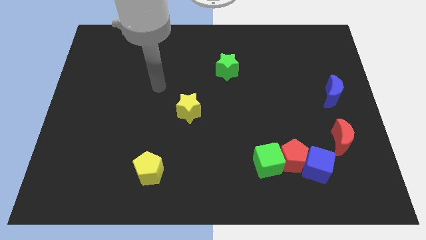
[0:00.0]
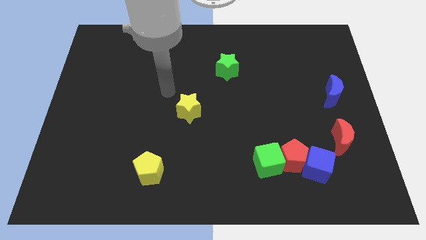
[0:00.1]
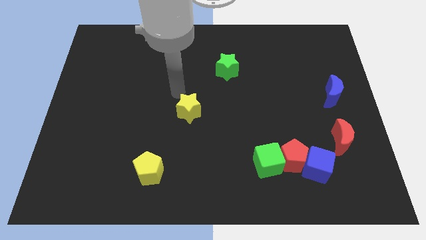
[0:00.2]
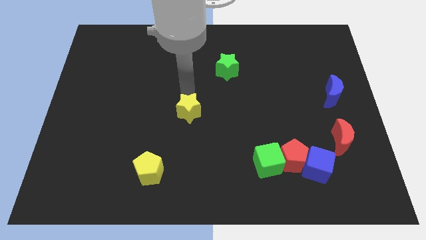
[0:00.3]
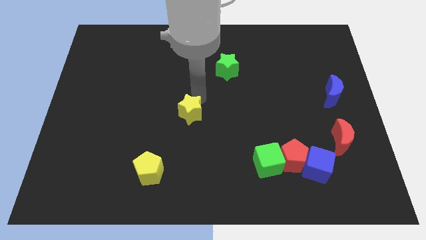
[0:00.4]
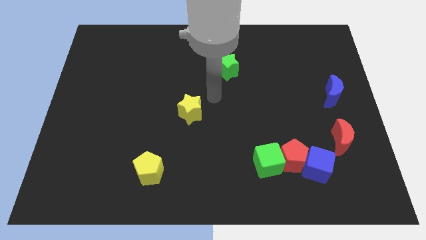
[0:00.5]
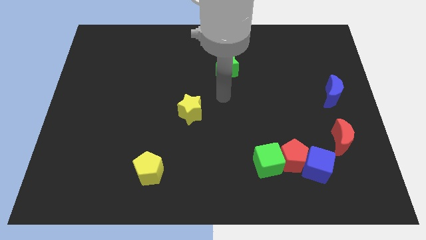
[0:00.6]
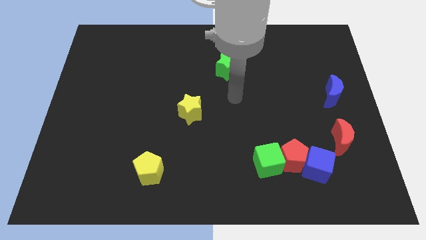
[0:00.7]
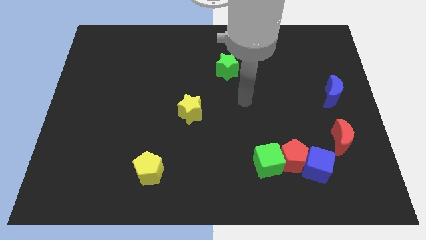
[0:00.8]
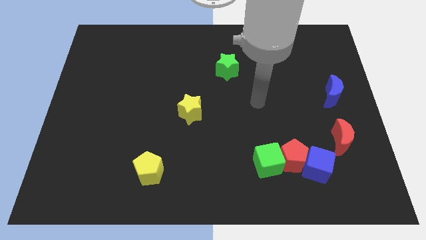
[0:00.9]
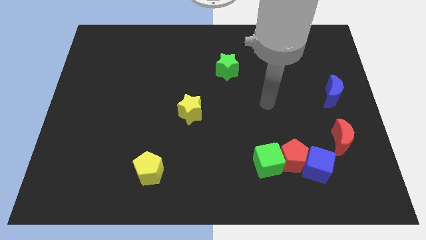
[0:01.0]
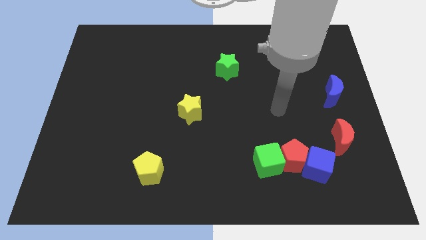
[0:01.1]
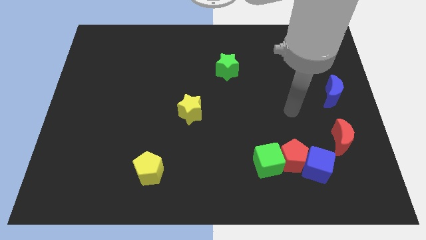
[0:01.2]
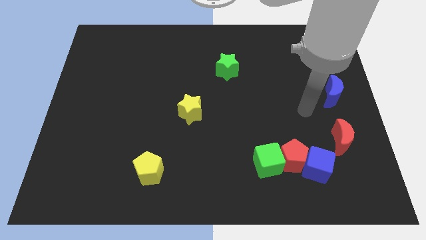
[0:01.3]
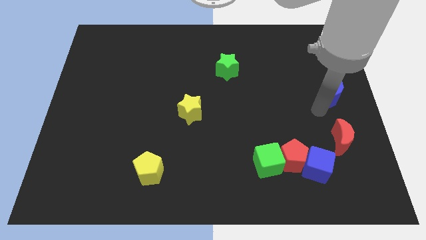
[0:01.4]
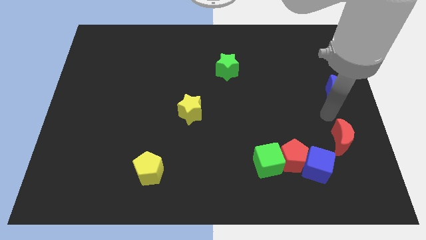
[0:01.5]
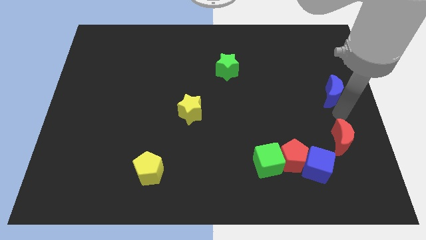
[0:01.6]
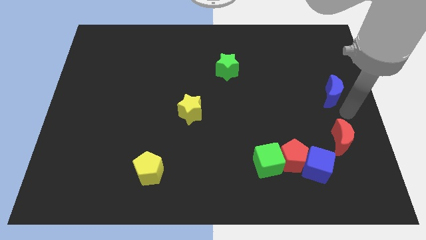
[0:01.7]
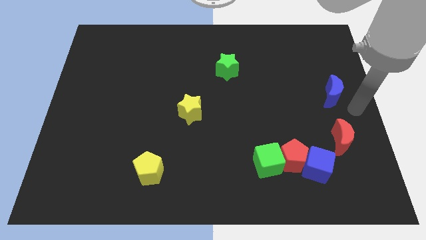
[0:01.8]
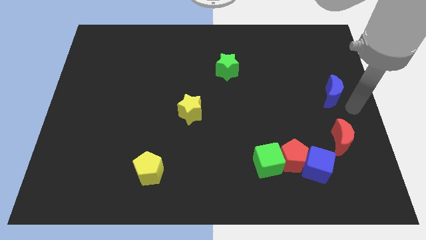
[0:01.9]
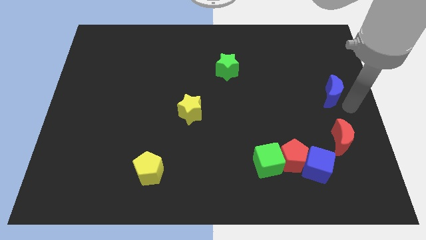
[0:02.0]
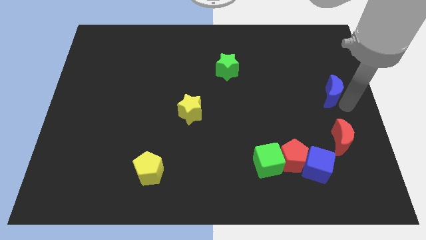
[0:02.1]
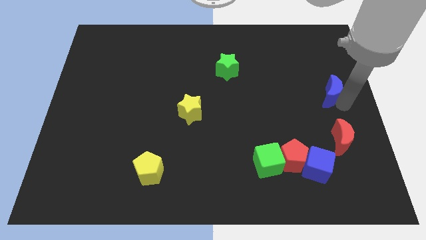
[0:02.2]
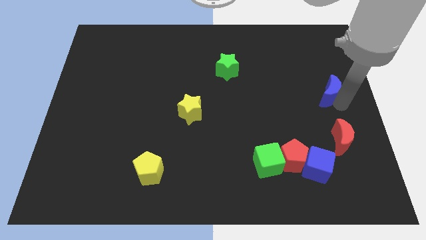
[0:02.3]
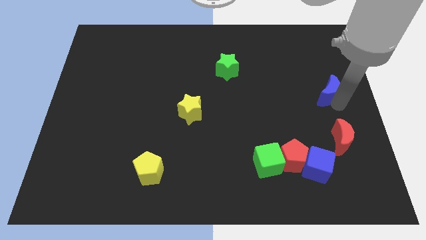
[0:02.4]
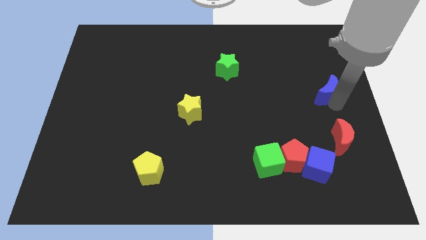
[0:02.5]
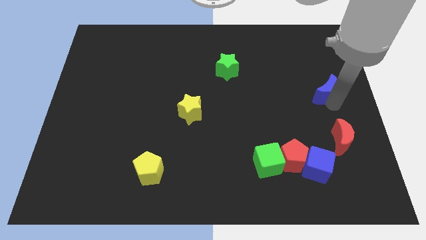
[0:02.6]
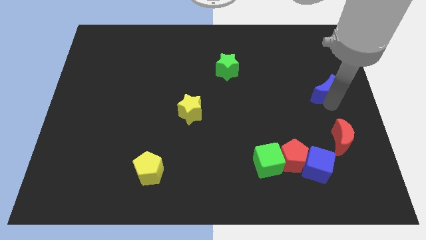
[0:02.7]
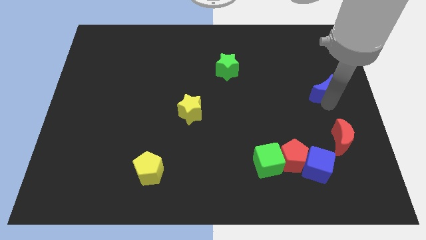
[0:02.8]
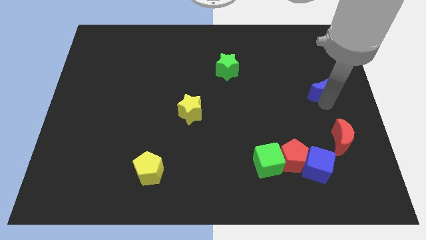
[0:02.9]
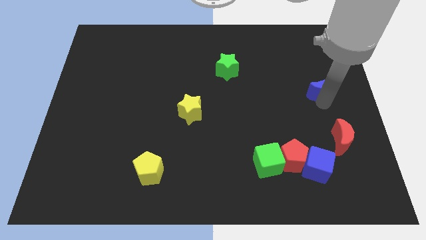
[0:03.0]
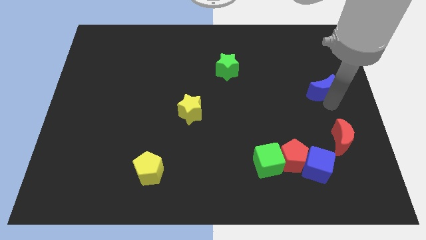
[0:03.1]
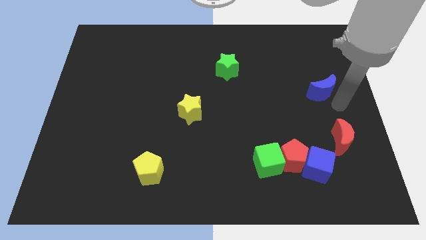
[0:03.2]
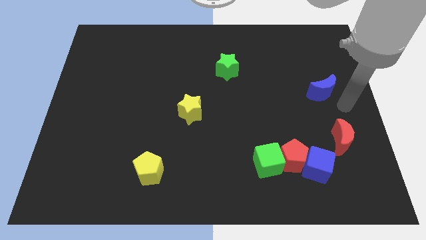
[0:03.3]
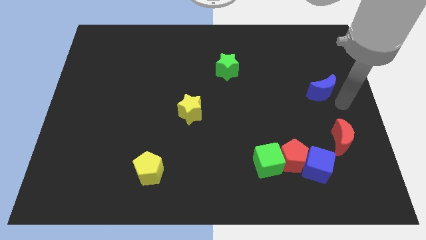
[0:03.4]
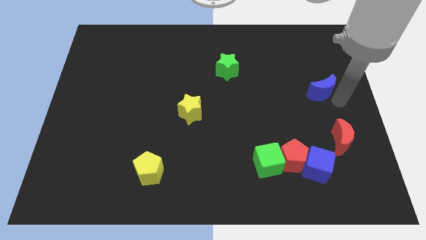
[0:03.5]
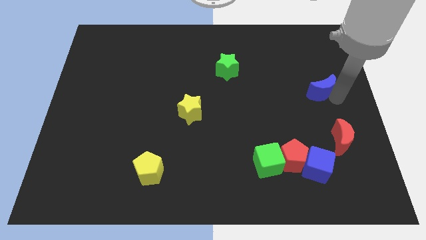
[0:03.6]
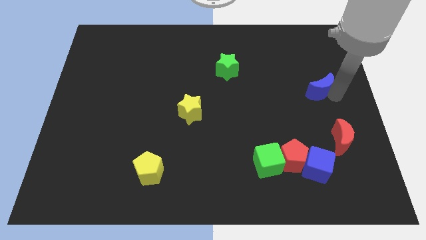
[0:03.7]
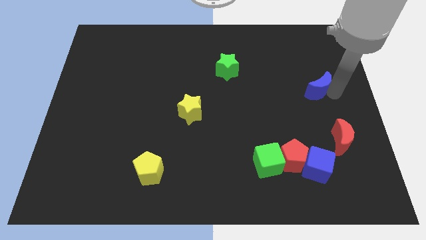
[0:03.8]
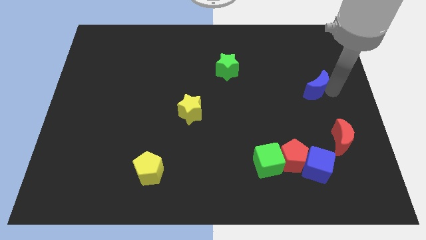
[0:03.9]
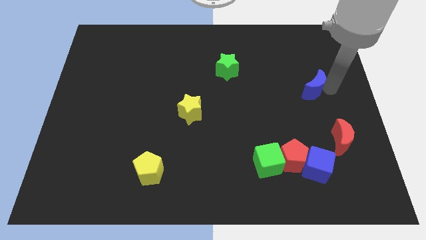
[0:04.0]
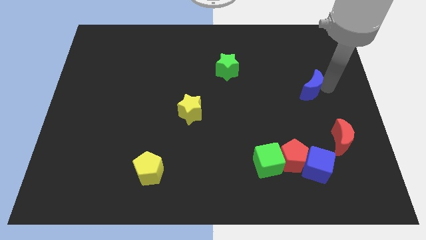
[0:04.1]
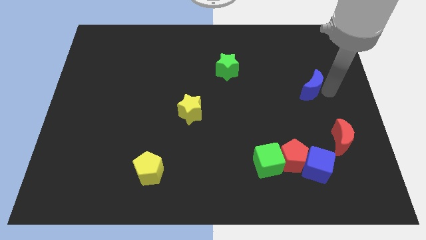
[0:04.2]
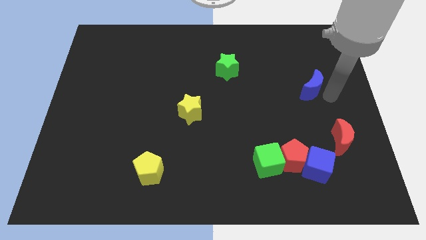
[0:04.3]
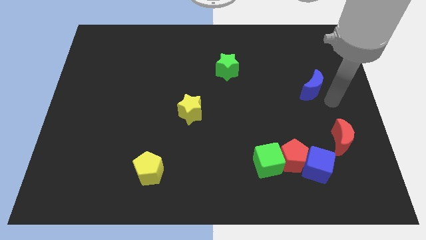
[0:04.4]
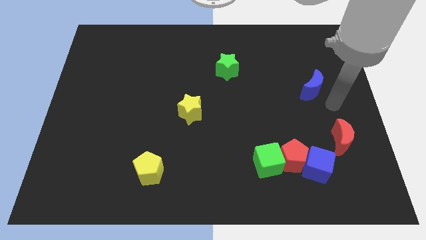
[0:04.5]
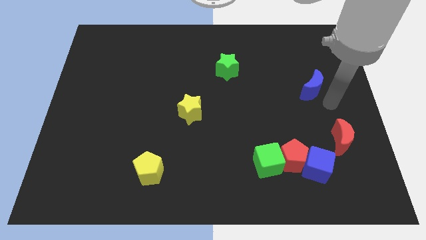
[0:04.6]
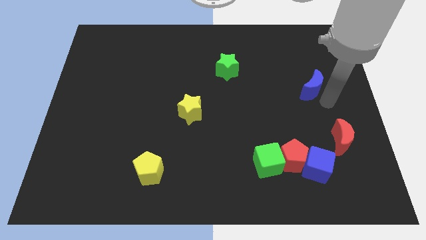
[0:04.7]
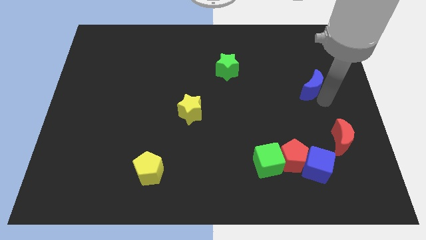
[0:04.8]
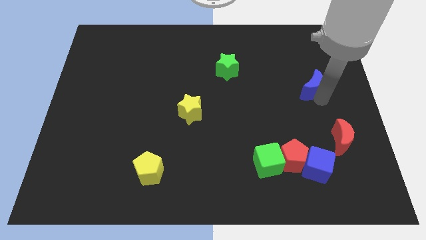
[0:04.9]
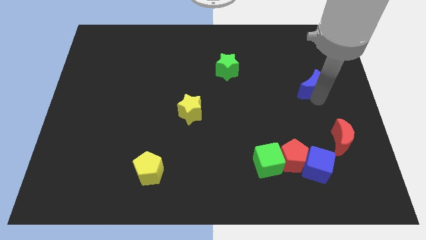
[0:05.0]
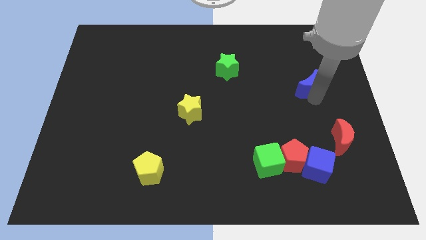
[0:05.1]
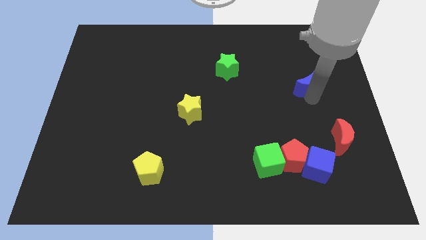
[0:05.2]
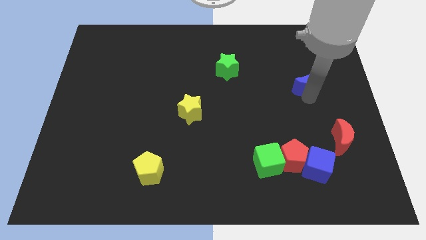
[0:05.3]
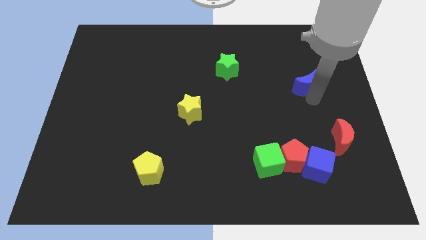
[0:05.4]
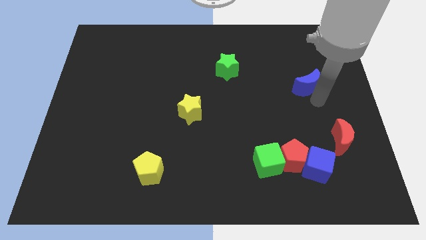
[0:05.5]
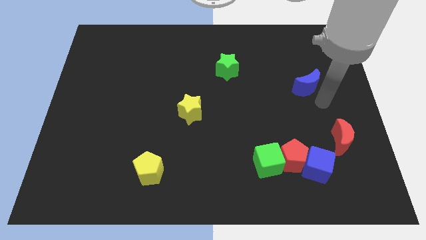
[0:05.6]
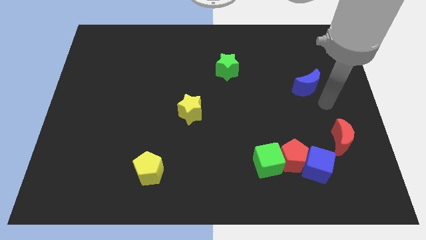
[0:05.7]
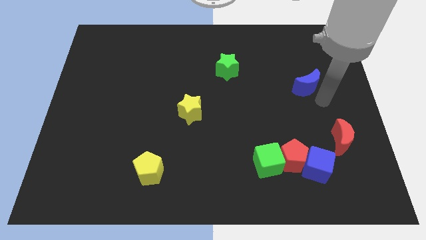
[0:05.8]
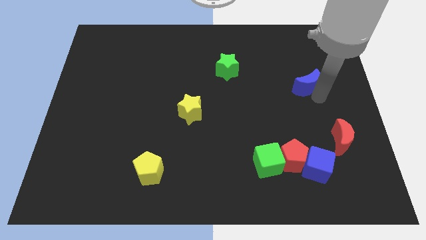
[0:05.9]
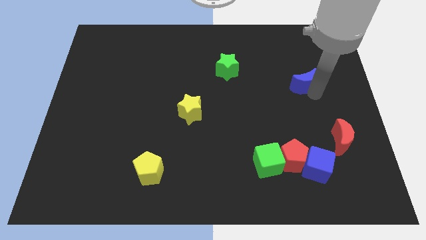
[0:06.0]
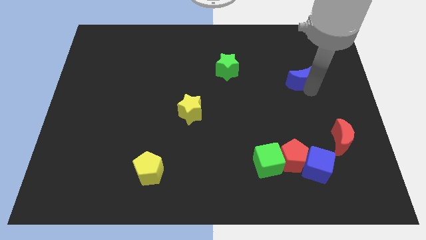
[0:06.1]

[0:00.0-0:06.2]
slightly move the blue moon diagonally upwards and left

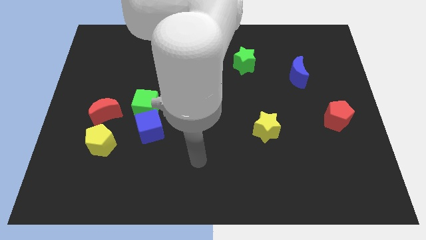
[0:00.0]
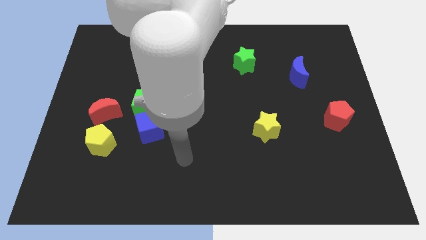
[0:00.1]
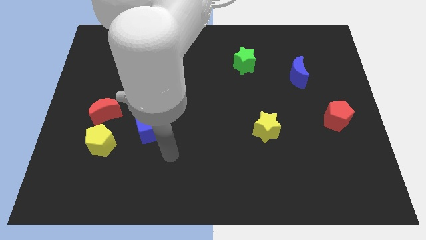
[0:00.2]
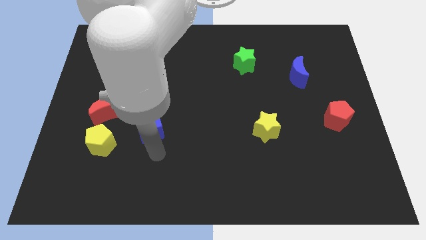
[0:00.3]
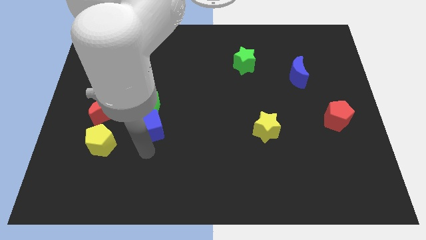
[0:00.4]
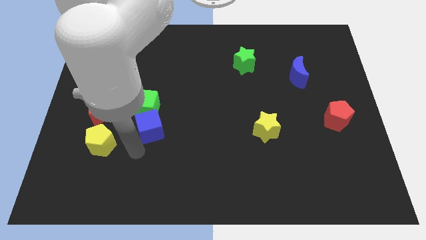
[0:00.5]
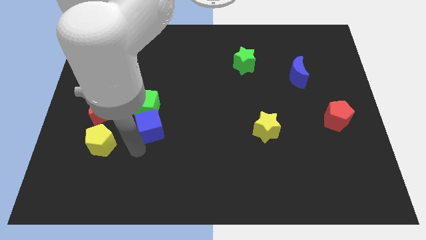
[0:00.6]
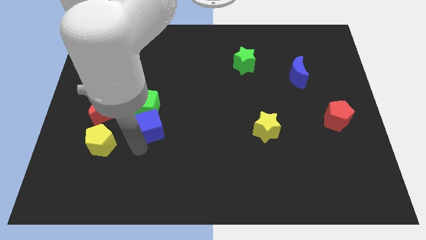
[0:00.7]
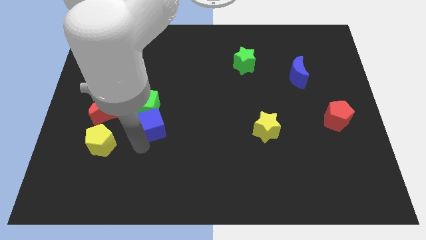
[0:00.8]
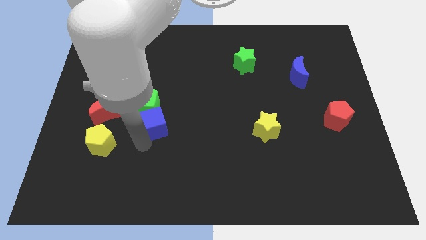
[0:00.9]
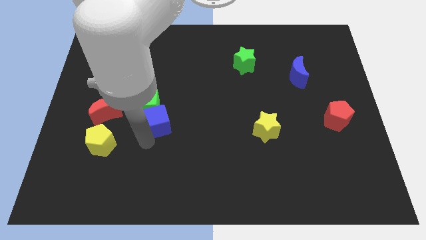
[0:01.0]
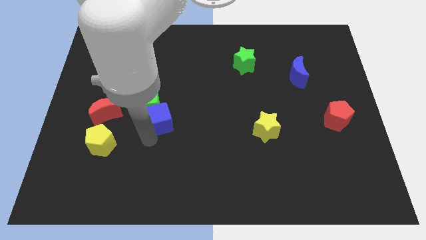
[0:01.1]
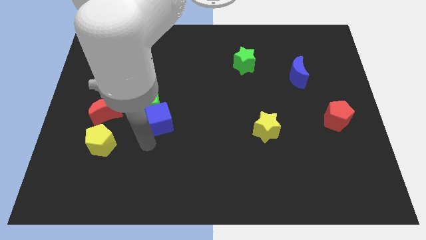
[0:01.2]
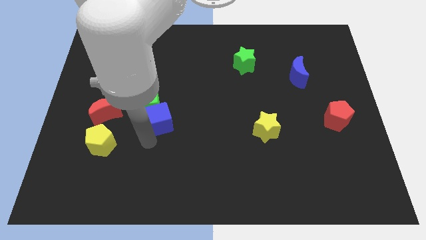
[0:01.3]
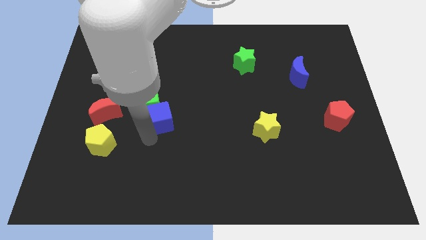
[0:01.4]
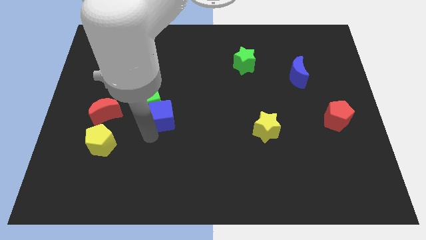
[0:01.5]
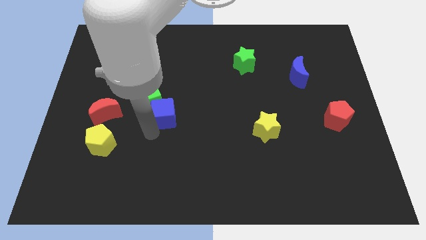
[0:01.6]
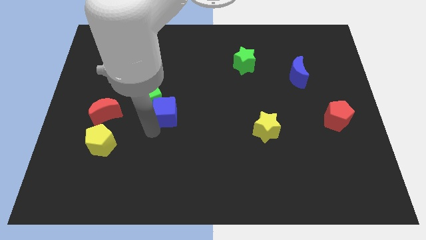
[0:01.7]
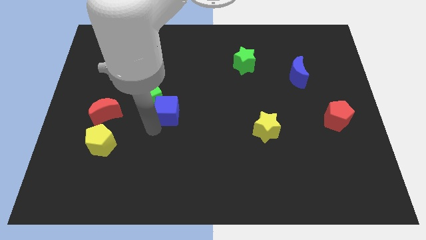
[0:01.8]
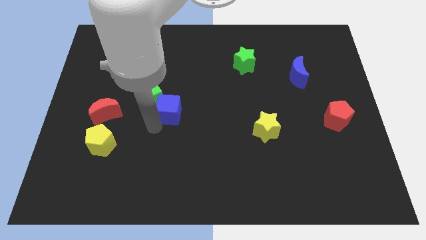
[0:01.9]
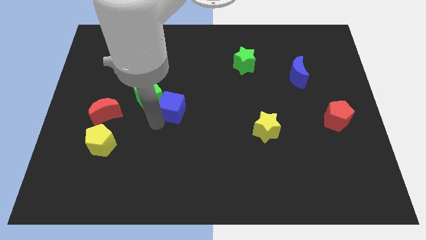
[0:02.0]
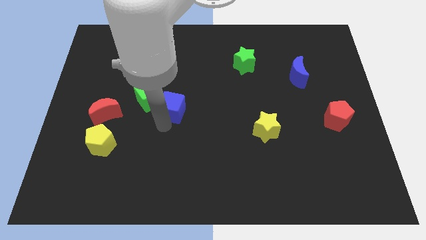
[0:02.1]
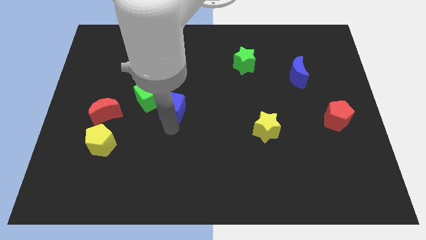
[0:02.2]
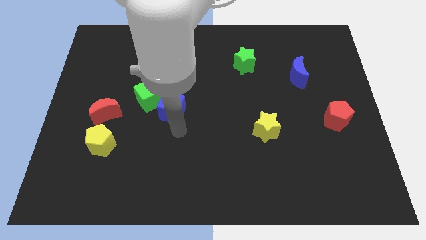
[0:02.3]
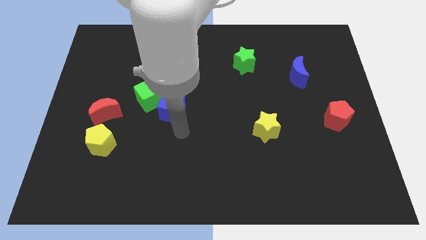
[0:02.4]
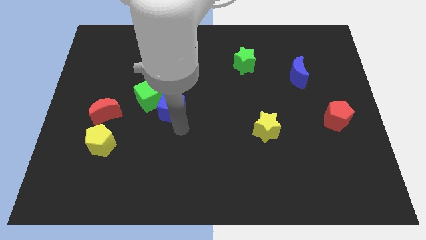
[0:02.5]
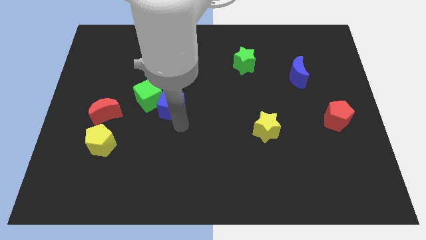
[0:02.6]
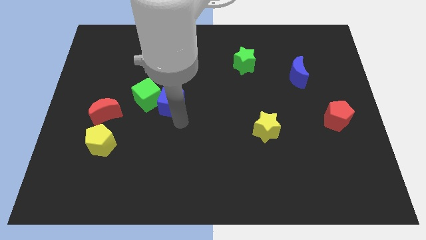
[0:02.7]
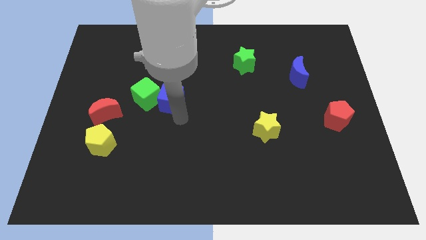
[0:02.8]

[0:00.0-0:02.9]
push the blue cube up a little bit
